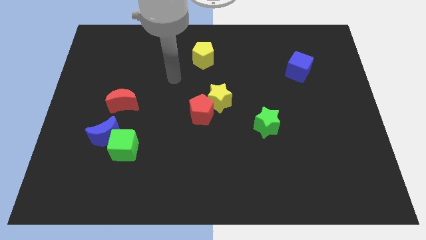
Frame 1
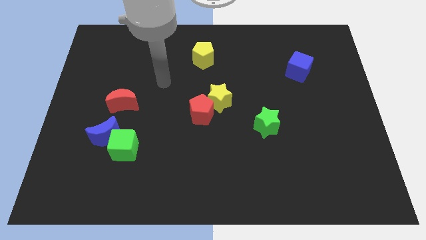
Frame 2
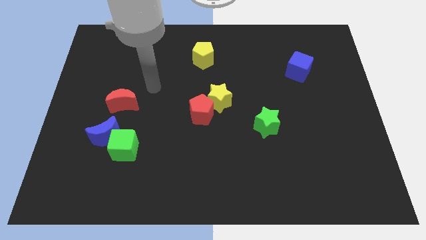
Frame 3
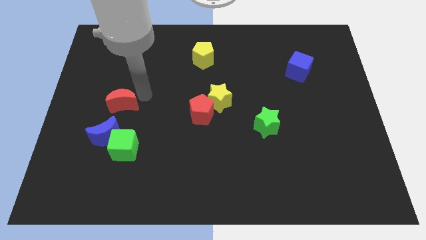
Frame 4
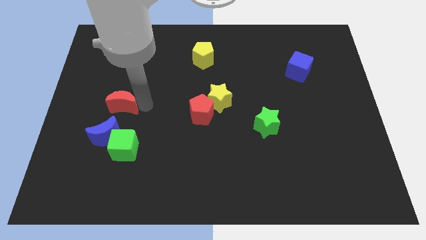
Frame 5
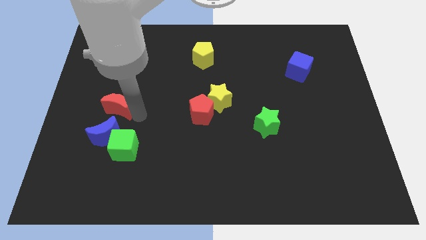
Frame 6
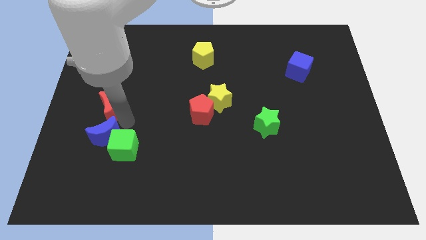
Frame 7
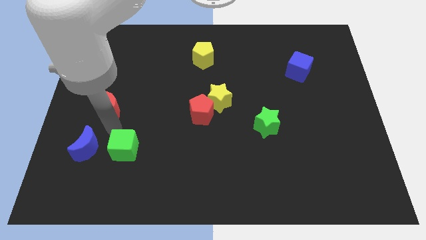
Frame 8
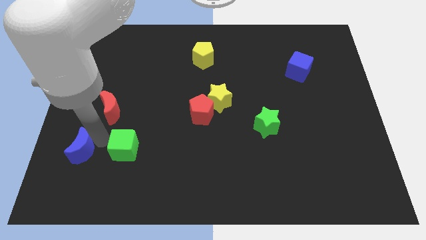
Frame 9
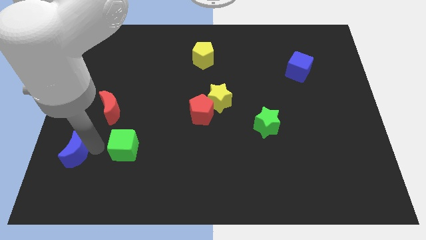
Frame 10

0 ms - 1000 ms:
move the green cube away from the blue moon

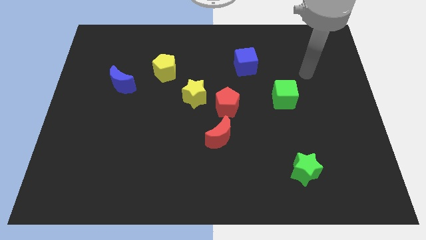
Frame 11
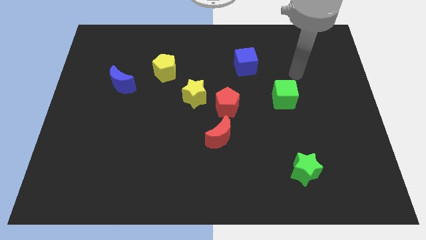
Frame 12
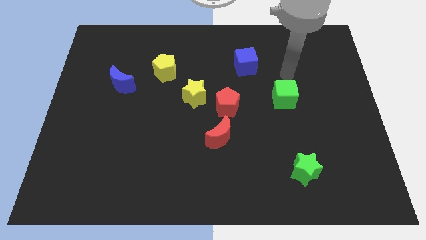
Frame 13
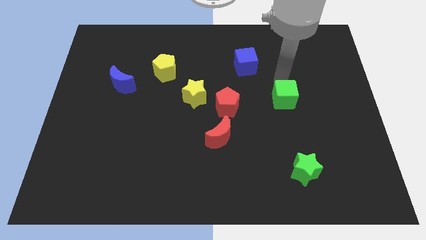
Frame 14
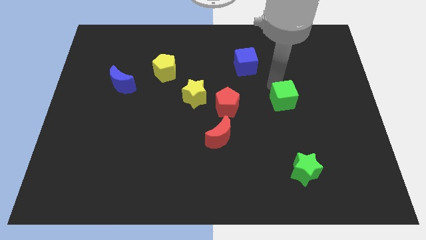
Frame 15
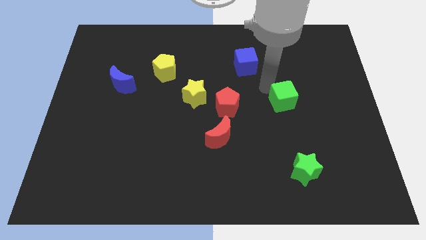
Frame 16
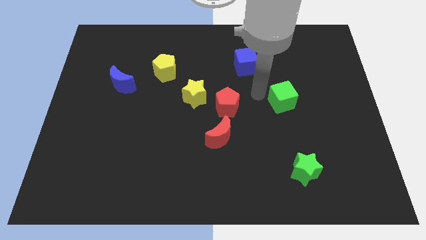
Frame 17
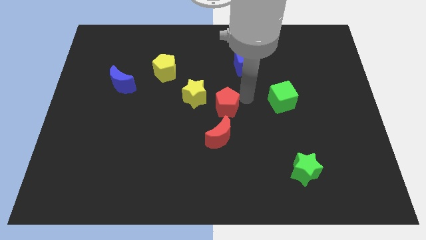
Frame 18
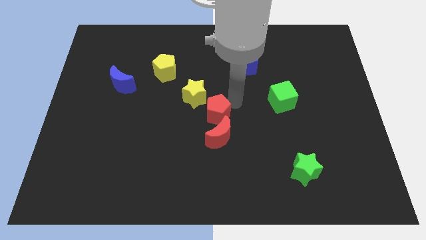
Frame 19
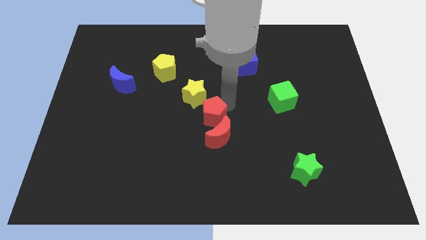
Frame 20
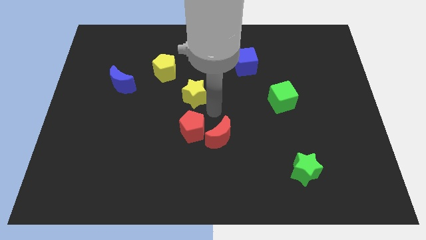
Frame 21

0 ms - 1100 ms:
separate the yellow star from the red pentagon

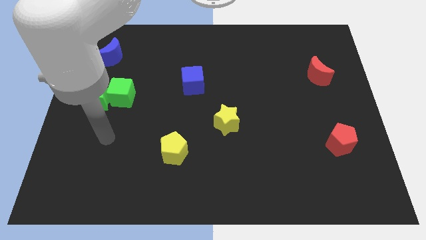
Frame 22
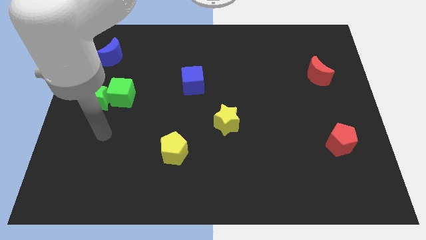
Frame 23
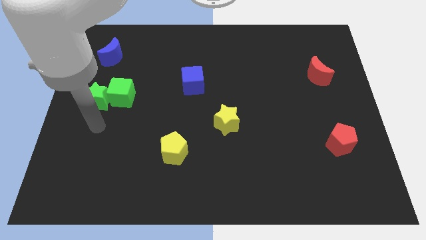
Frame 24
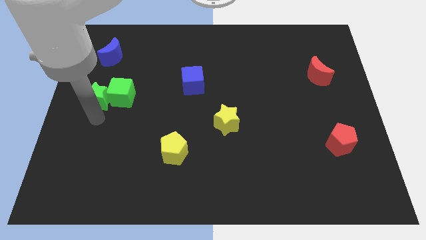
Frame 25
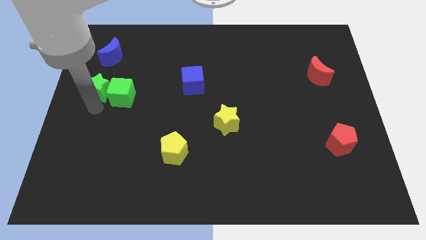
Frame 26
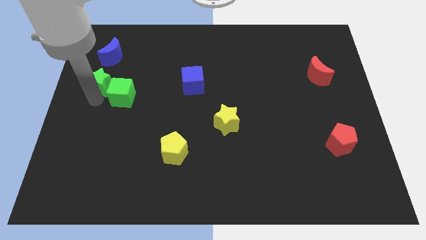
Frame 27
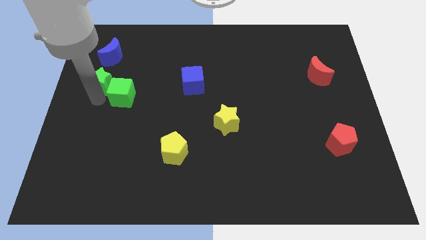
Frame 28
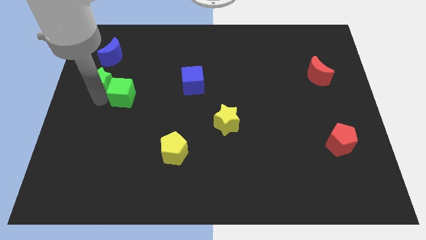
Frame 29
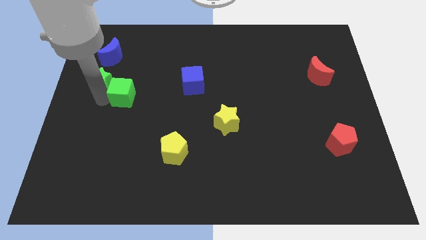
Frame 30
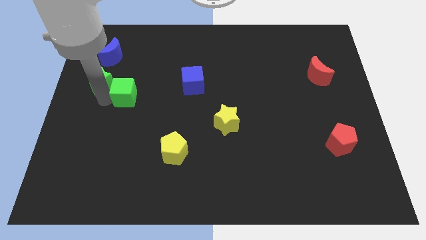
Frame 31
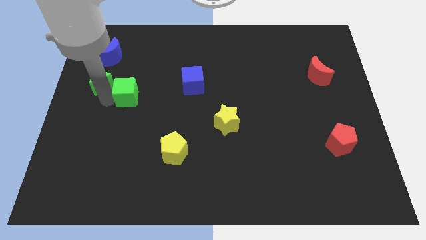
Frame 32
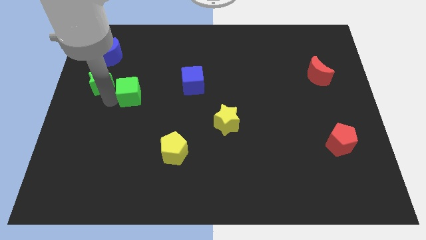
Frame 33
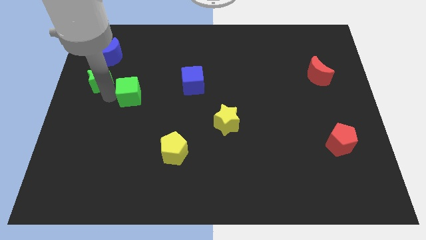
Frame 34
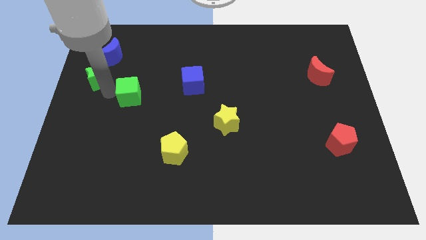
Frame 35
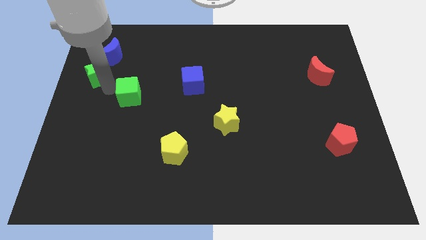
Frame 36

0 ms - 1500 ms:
move the green cube away from the green star

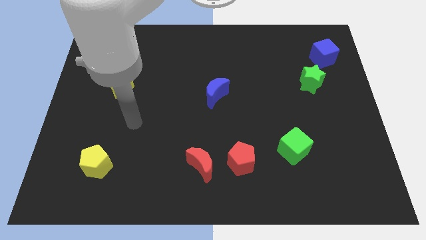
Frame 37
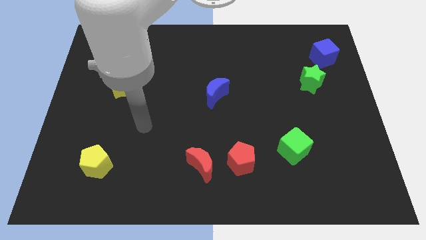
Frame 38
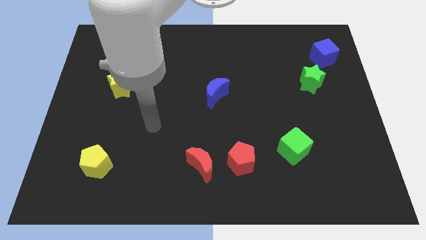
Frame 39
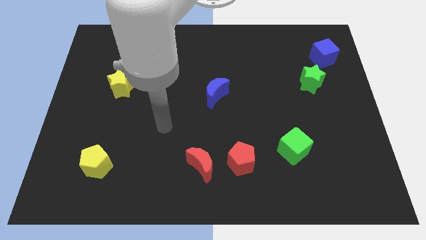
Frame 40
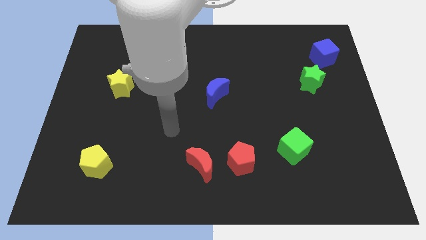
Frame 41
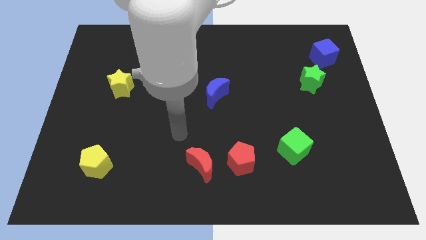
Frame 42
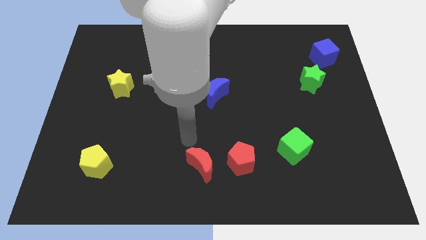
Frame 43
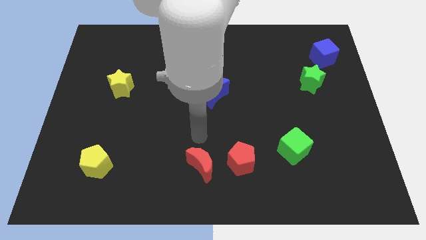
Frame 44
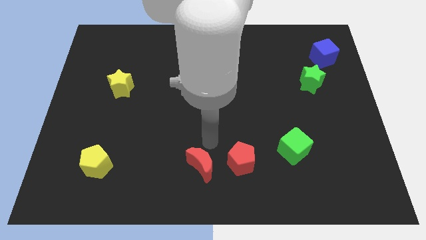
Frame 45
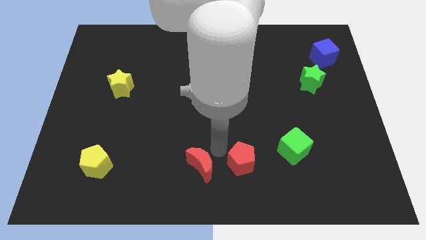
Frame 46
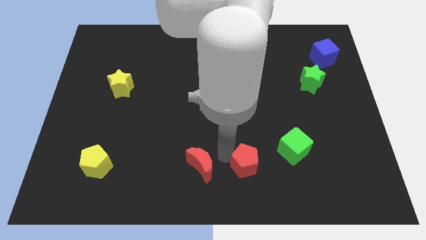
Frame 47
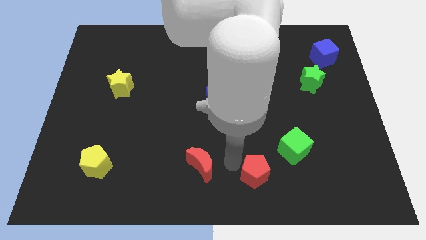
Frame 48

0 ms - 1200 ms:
pull the red moon apart from the red pentagon

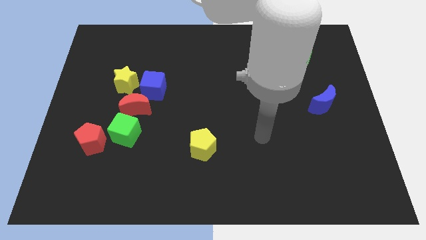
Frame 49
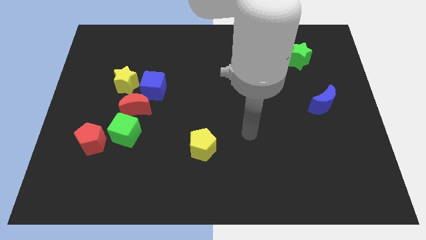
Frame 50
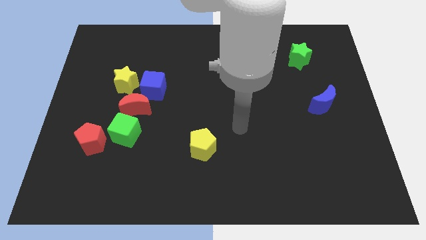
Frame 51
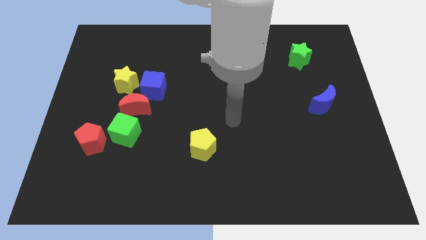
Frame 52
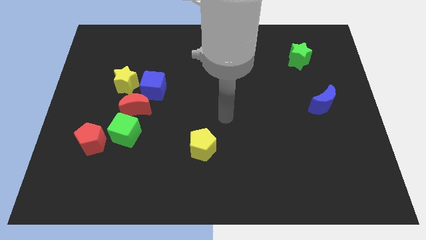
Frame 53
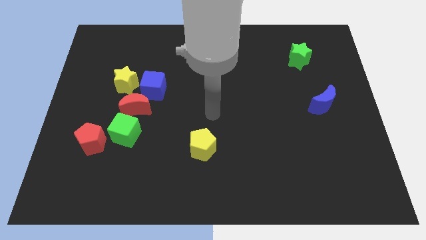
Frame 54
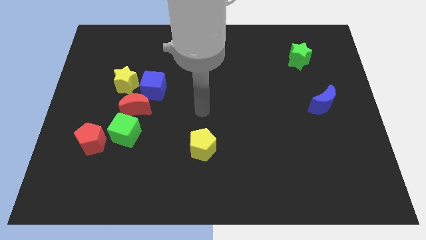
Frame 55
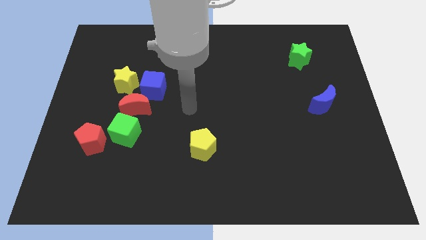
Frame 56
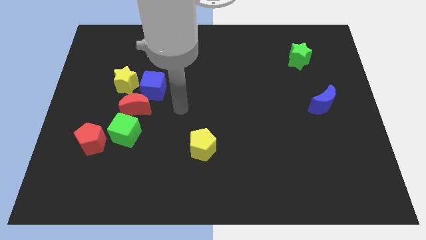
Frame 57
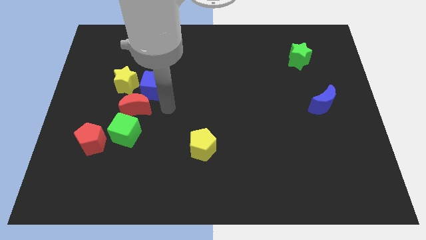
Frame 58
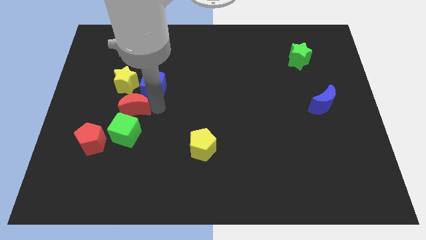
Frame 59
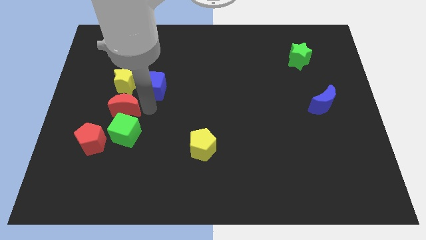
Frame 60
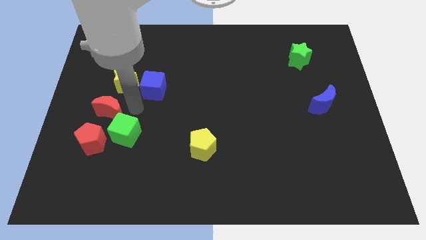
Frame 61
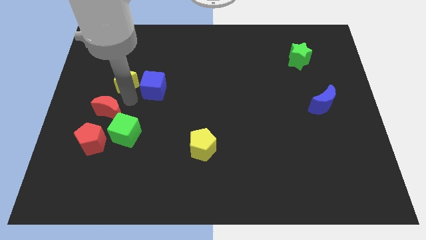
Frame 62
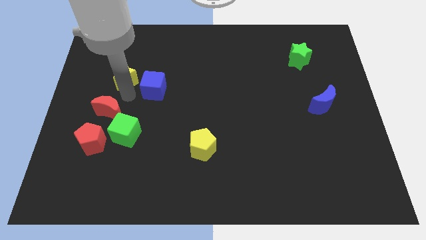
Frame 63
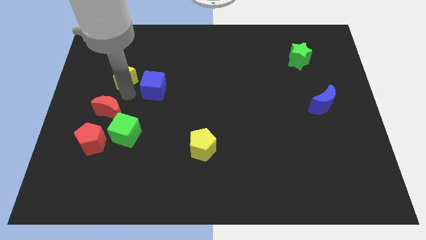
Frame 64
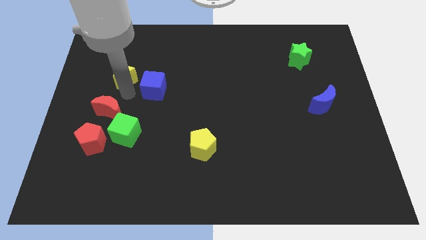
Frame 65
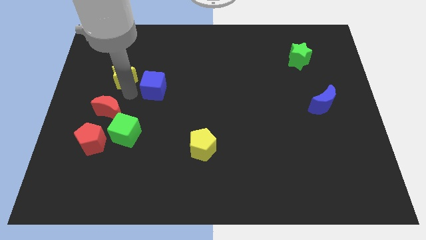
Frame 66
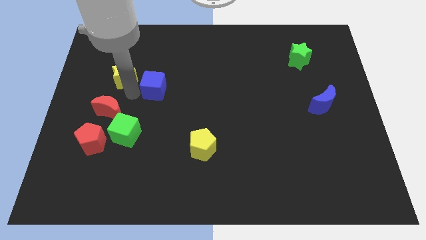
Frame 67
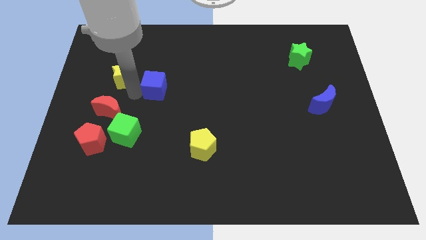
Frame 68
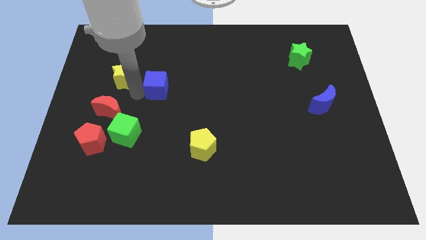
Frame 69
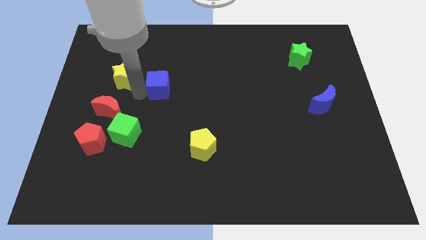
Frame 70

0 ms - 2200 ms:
separate the blue cube from the red moon and yellow star

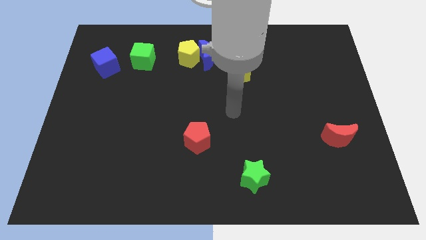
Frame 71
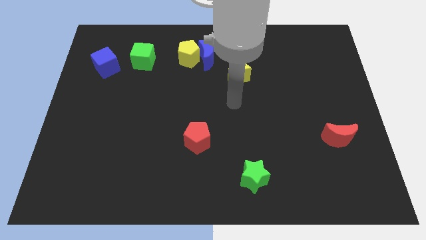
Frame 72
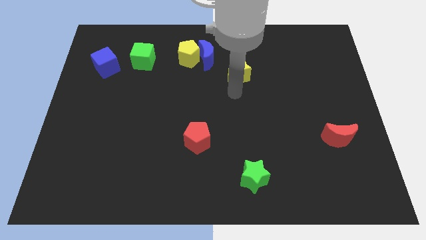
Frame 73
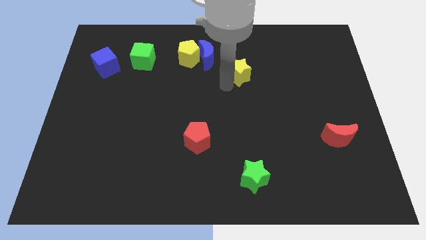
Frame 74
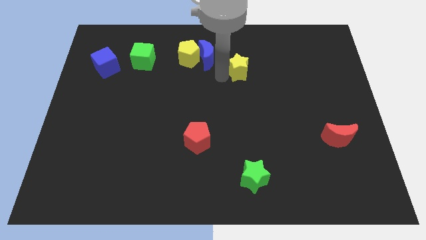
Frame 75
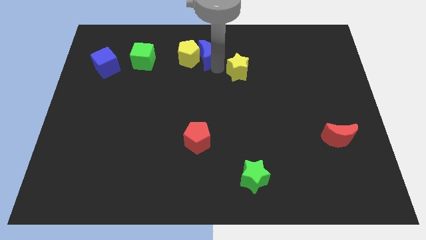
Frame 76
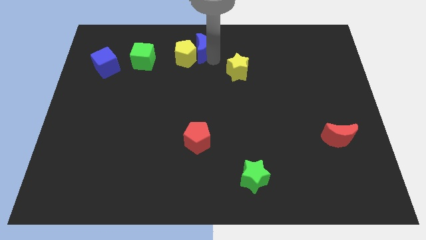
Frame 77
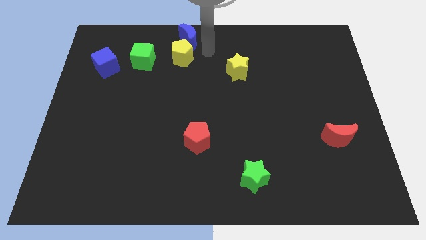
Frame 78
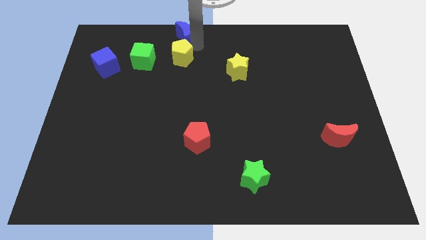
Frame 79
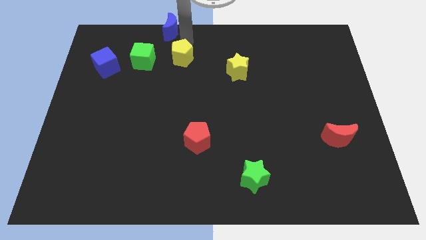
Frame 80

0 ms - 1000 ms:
move the yellow pentagon away from the blue moon

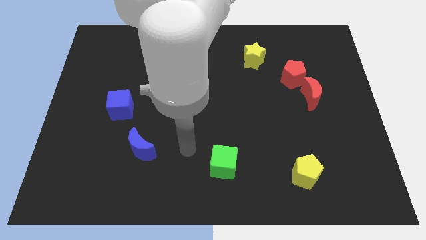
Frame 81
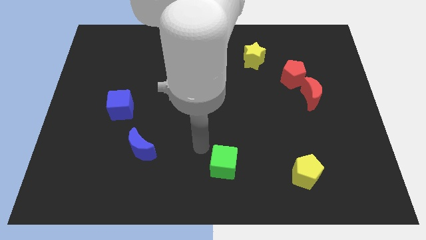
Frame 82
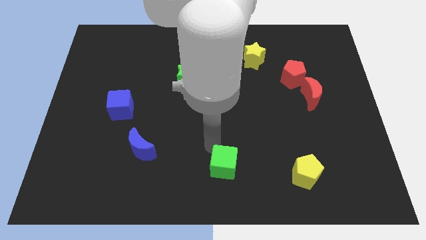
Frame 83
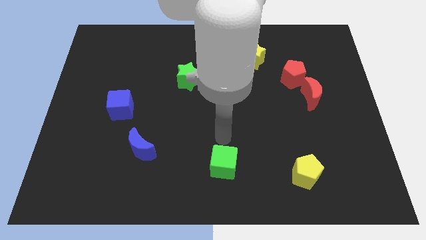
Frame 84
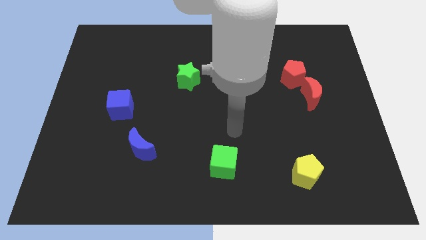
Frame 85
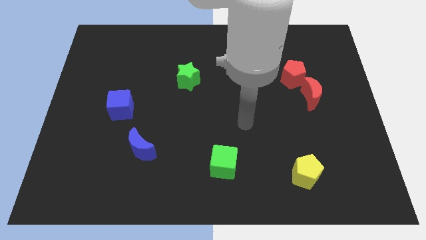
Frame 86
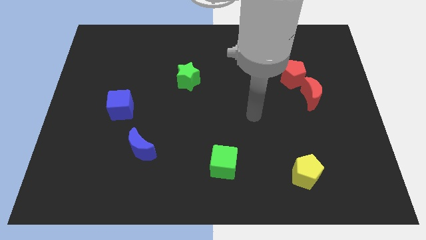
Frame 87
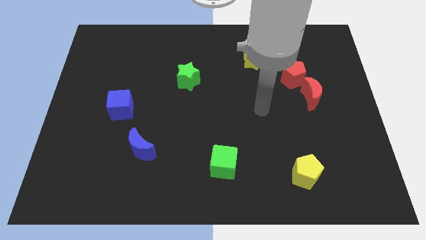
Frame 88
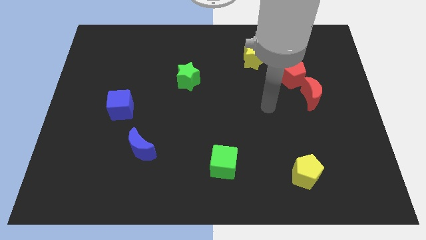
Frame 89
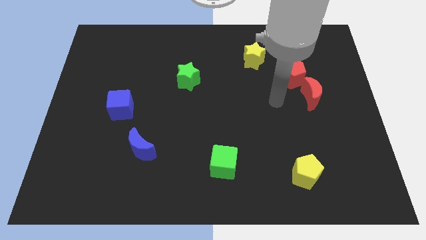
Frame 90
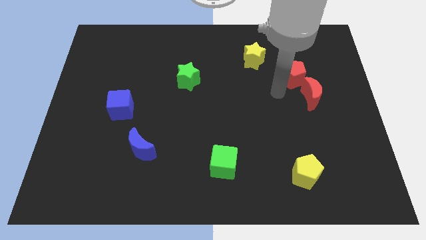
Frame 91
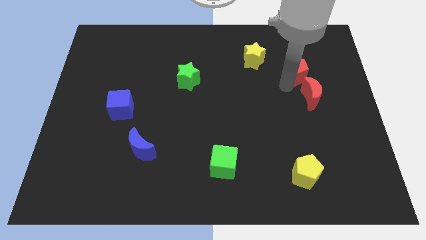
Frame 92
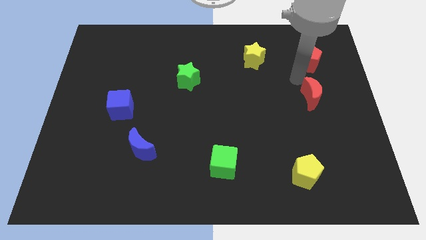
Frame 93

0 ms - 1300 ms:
separate the red moon from the red pentagon
